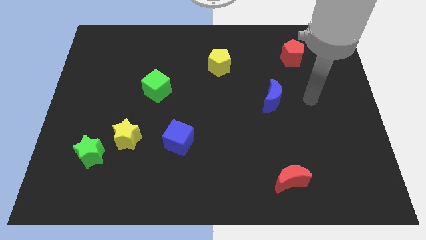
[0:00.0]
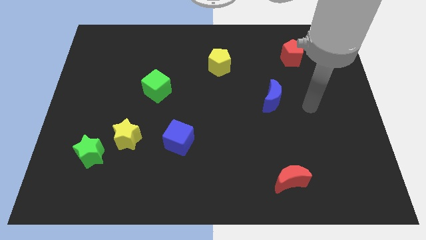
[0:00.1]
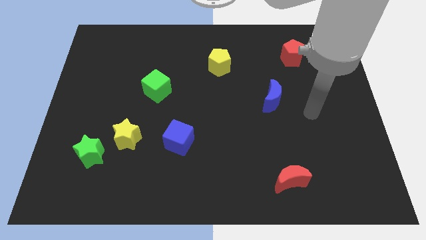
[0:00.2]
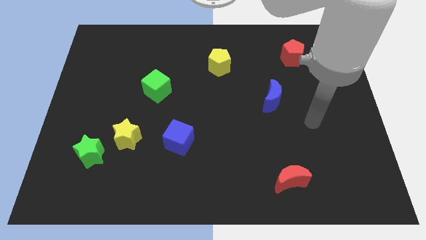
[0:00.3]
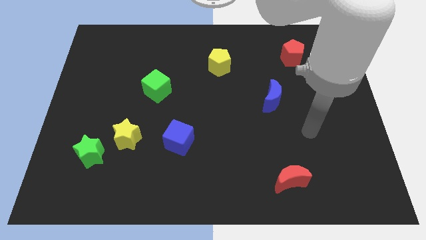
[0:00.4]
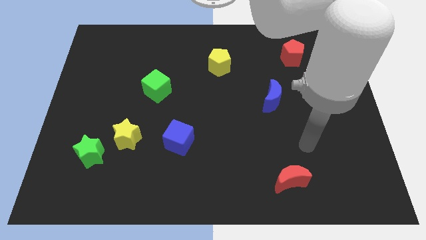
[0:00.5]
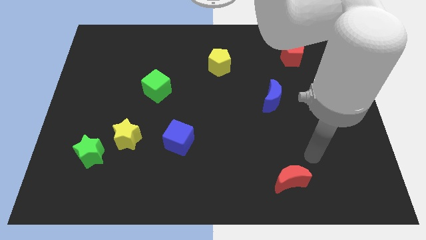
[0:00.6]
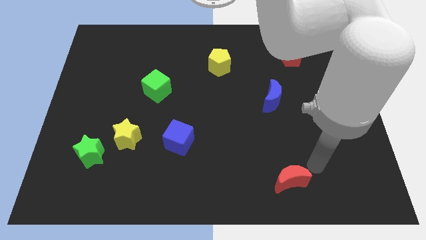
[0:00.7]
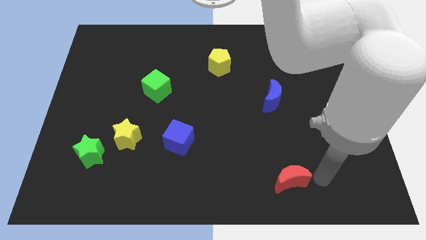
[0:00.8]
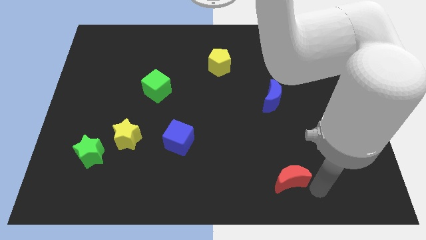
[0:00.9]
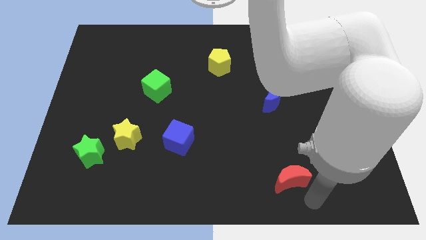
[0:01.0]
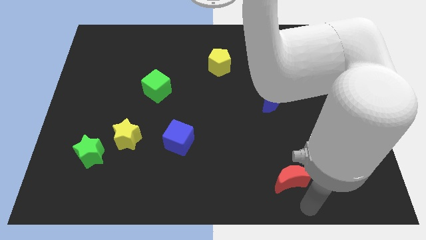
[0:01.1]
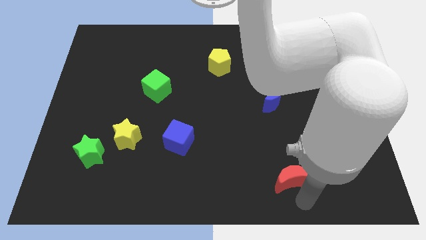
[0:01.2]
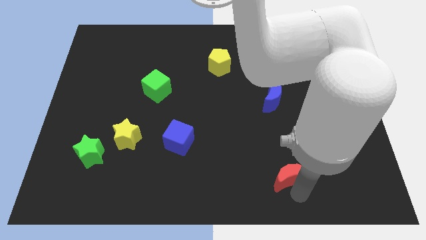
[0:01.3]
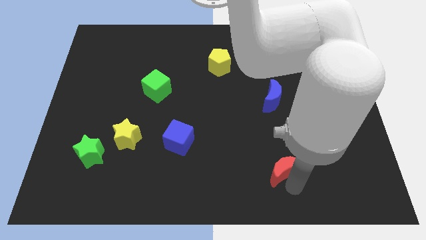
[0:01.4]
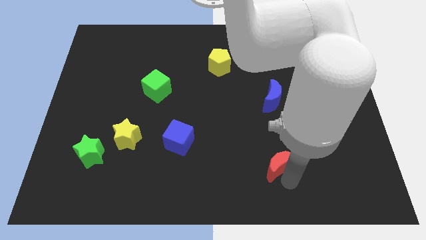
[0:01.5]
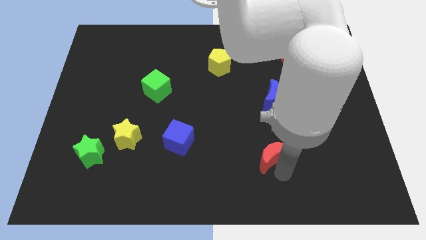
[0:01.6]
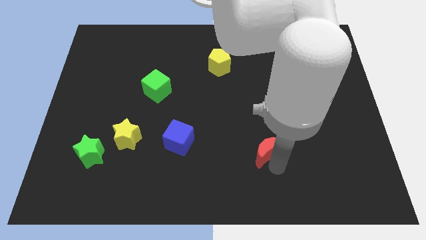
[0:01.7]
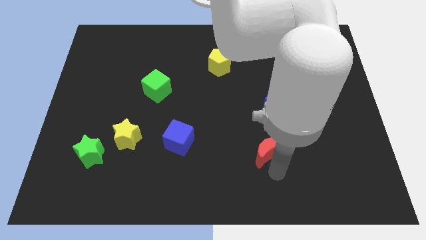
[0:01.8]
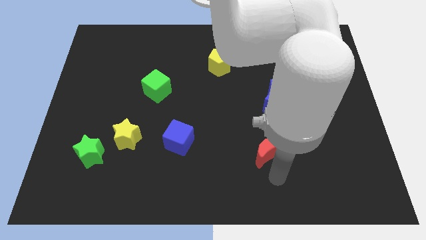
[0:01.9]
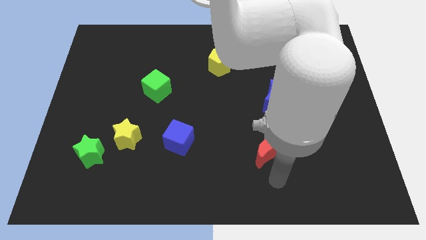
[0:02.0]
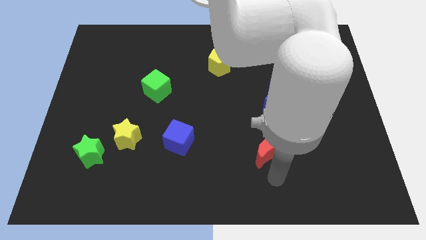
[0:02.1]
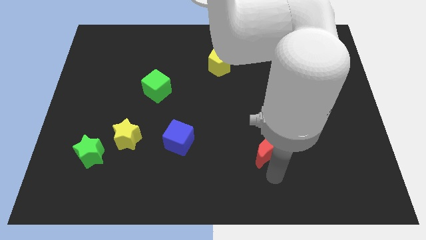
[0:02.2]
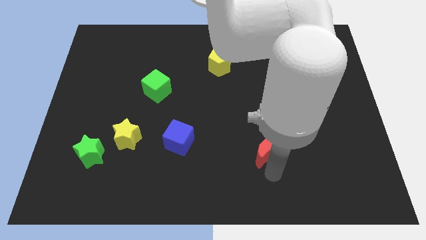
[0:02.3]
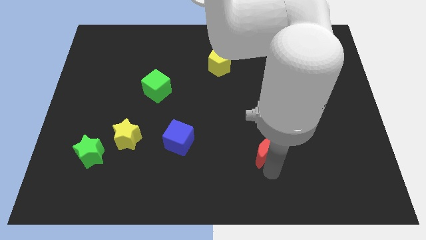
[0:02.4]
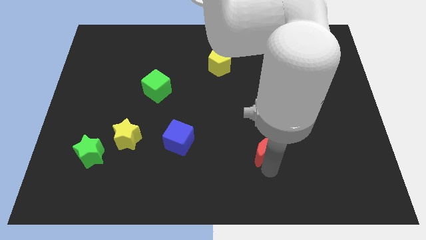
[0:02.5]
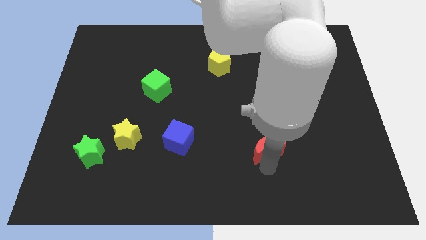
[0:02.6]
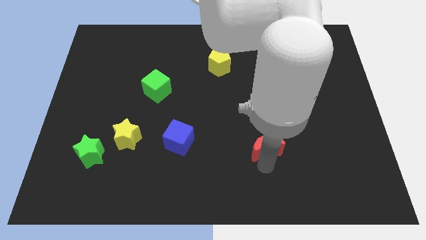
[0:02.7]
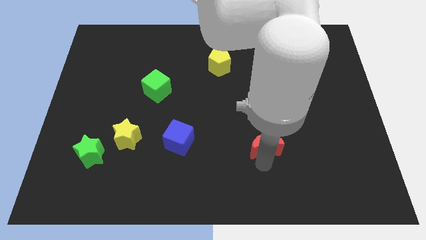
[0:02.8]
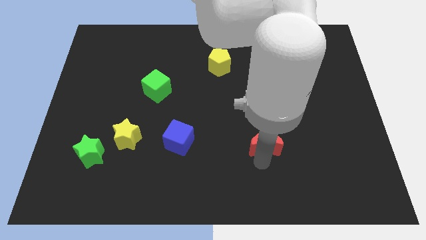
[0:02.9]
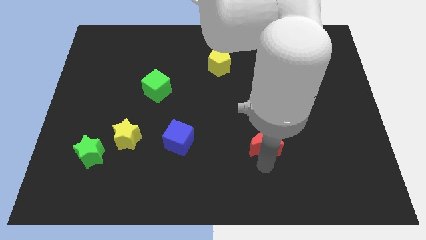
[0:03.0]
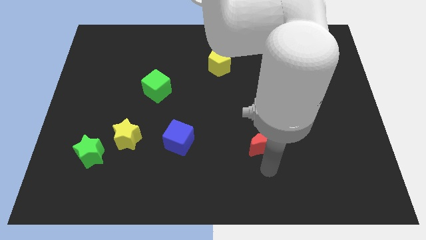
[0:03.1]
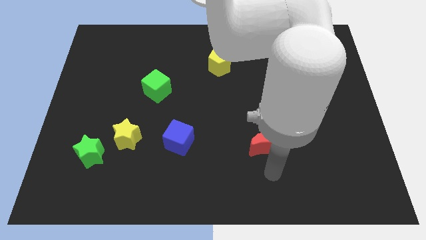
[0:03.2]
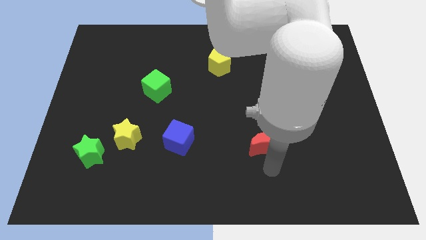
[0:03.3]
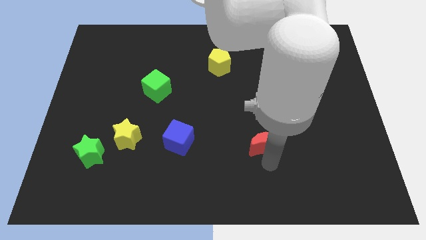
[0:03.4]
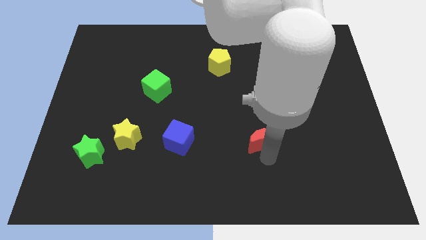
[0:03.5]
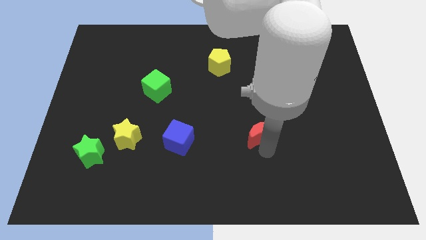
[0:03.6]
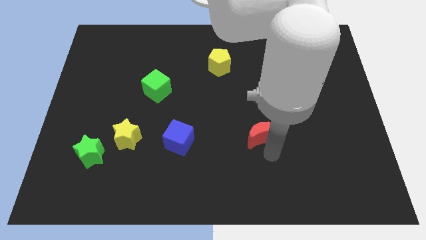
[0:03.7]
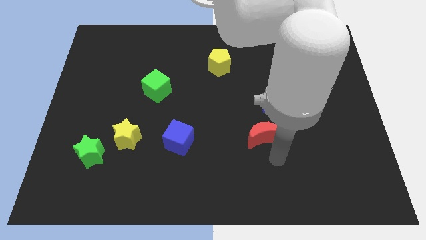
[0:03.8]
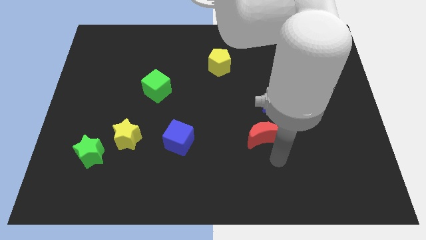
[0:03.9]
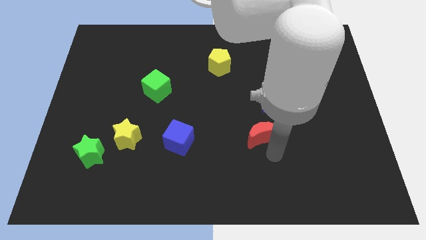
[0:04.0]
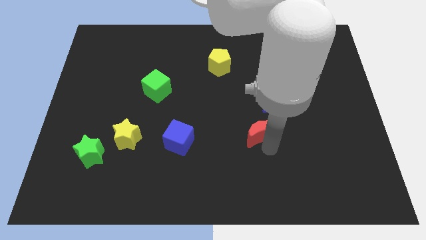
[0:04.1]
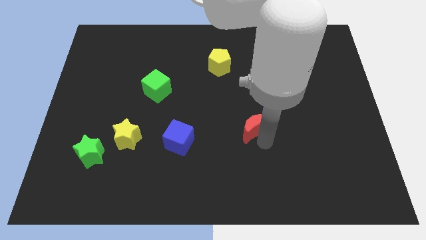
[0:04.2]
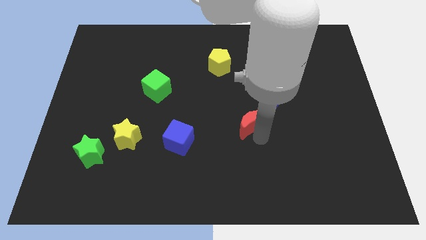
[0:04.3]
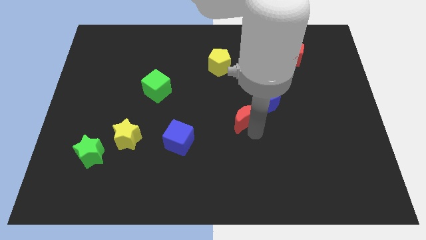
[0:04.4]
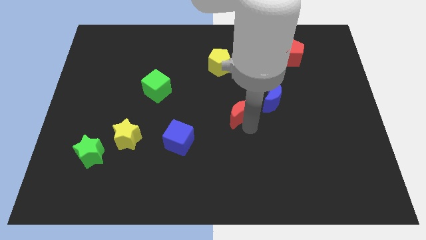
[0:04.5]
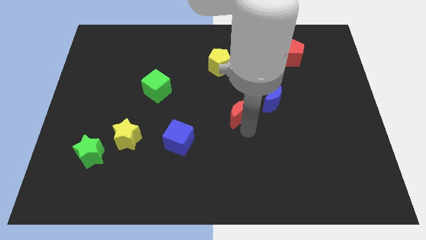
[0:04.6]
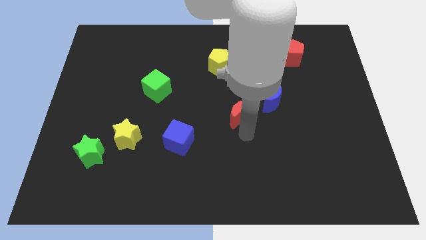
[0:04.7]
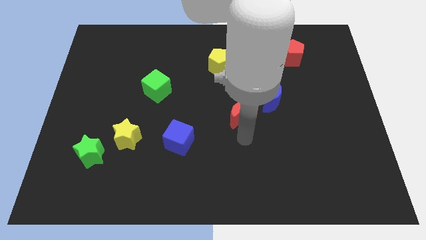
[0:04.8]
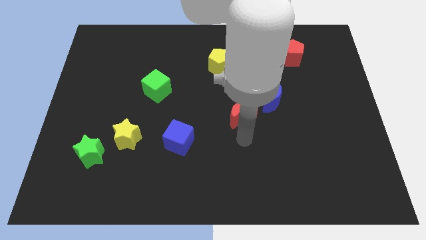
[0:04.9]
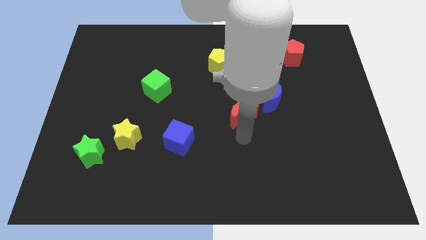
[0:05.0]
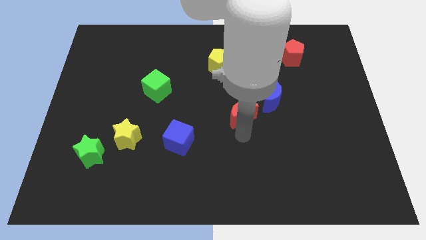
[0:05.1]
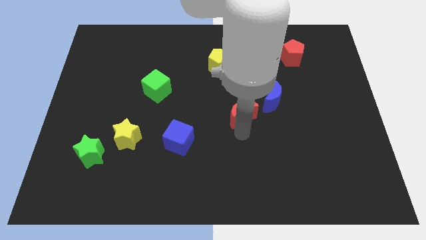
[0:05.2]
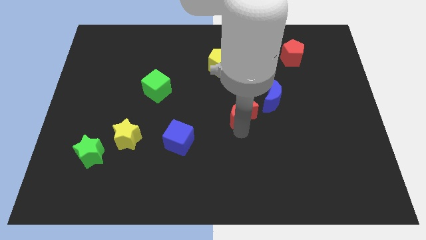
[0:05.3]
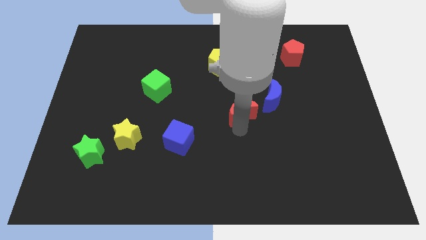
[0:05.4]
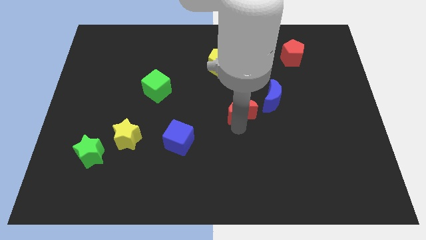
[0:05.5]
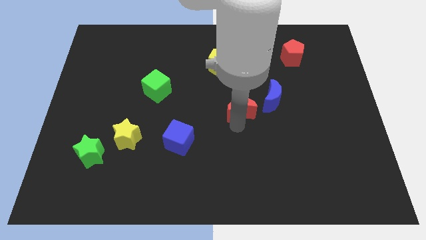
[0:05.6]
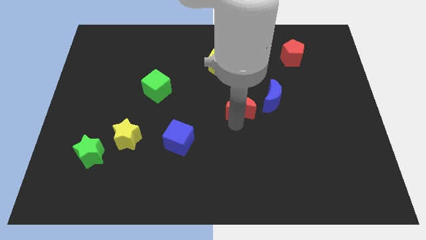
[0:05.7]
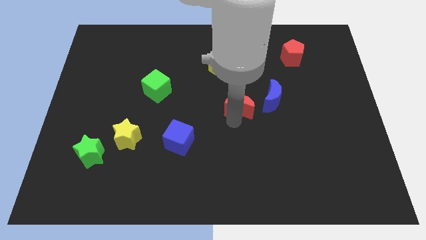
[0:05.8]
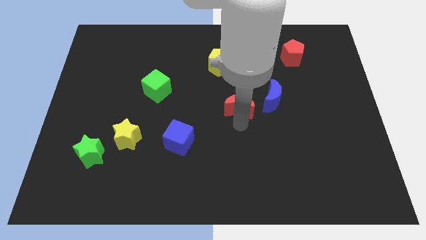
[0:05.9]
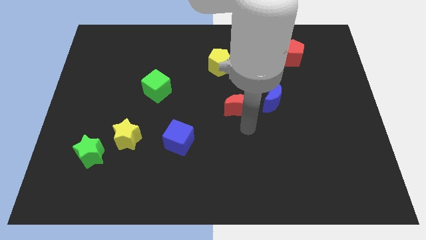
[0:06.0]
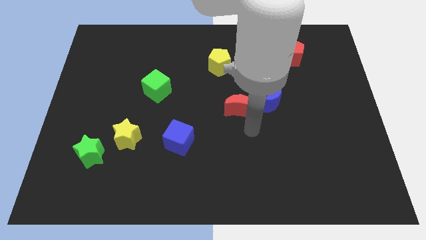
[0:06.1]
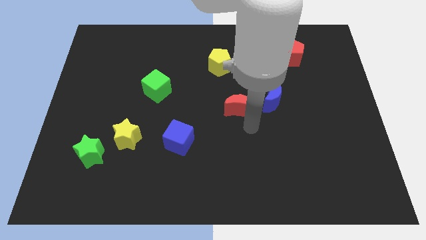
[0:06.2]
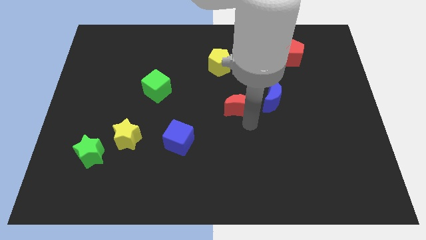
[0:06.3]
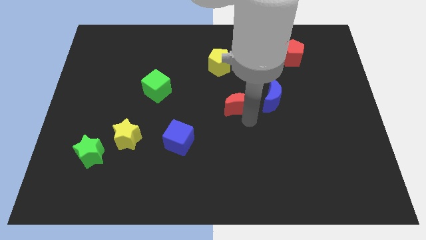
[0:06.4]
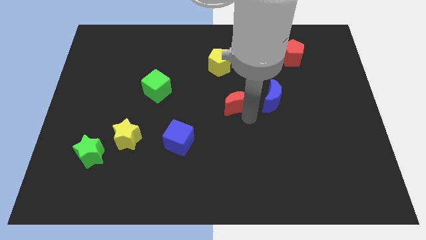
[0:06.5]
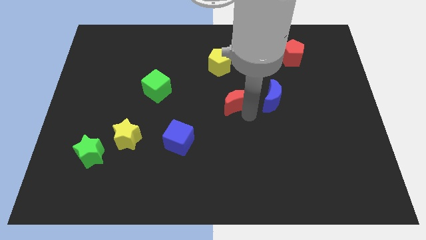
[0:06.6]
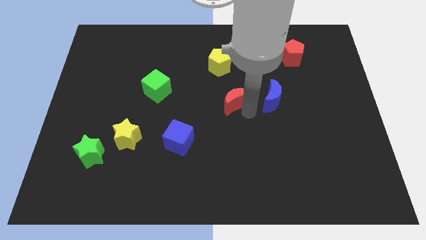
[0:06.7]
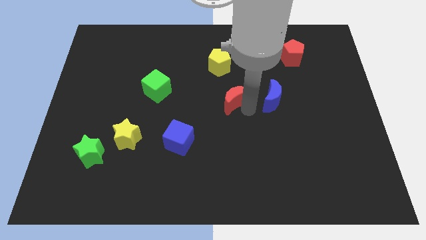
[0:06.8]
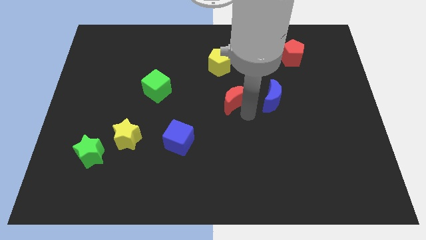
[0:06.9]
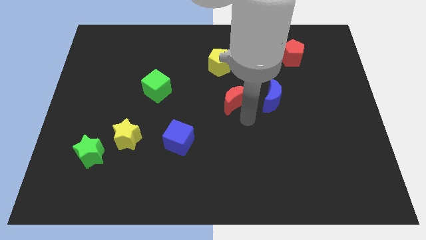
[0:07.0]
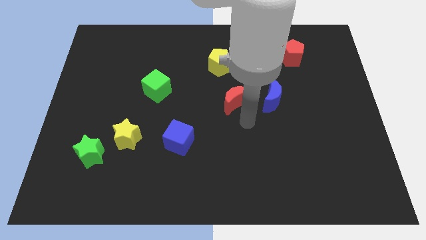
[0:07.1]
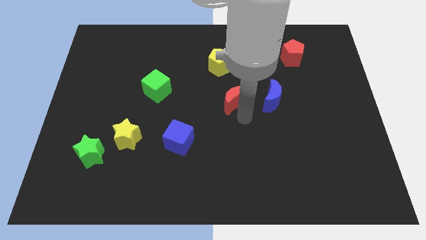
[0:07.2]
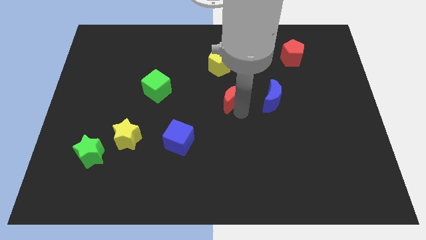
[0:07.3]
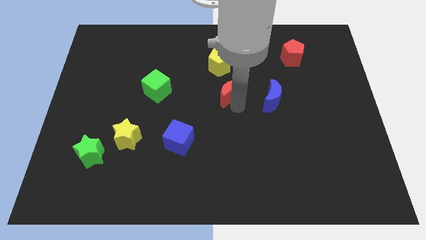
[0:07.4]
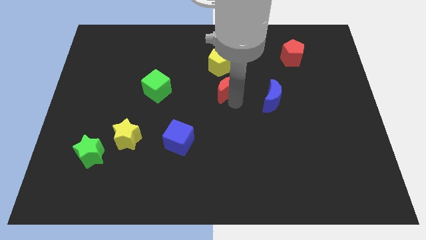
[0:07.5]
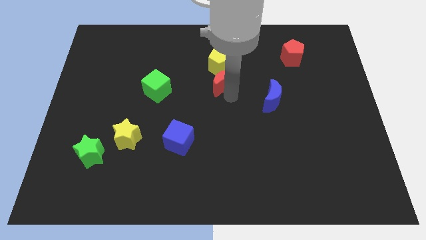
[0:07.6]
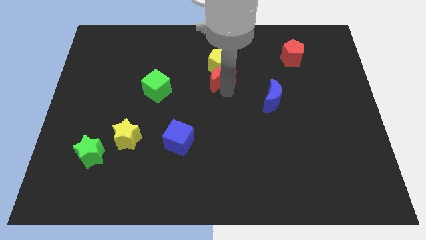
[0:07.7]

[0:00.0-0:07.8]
put the red moon to the yellow pentagon
